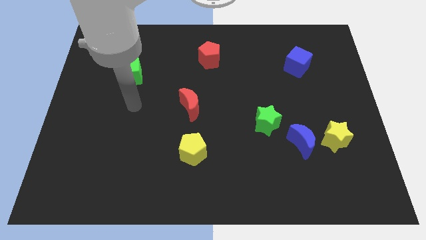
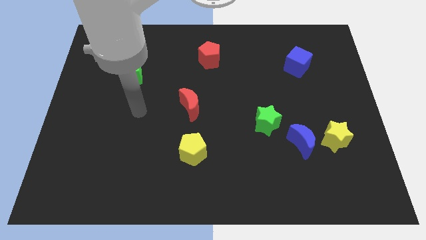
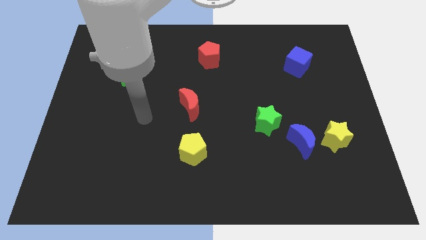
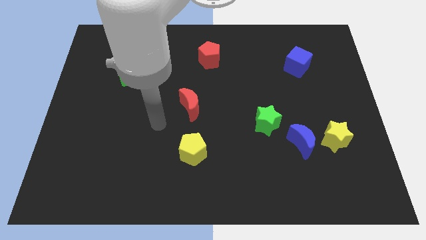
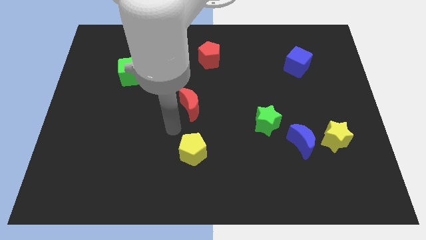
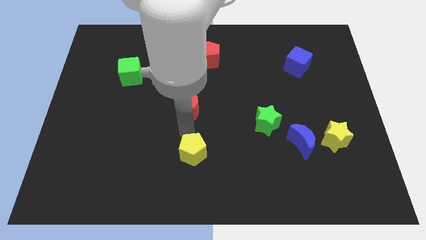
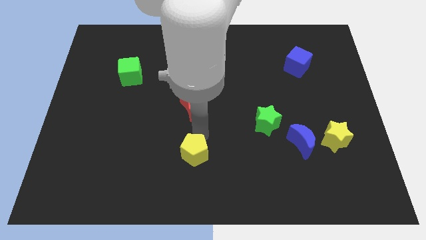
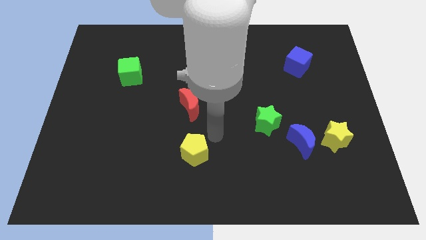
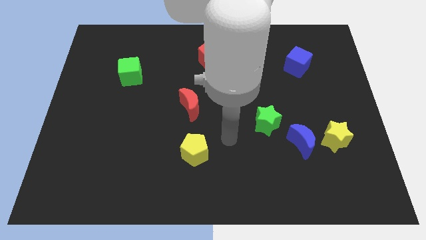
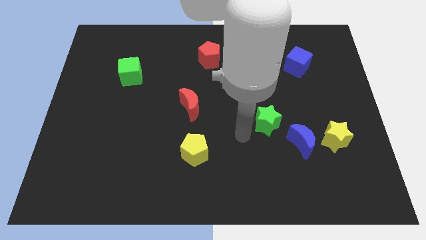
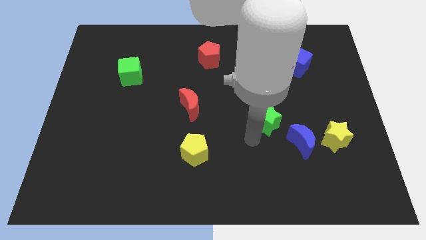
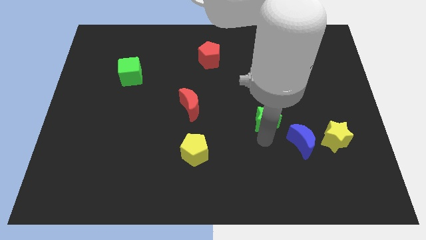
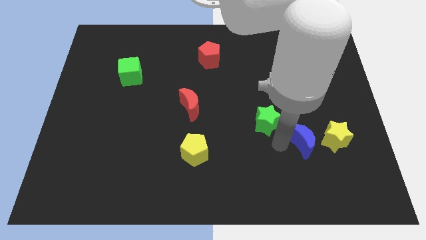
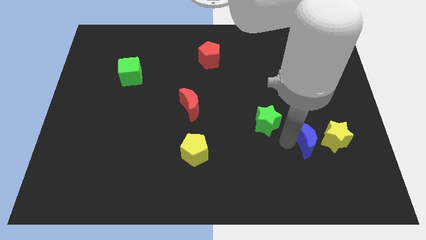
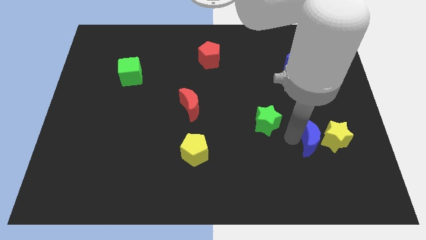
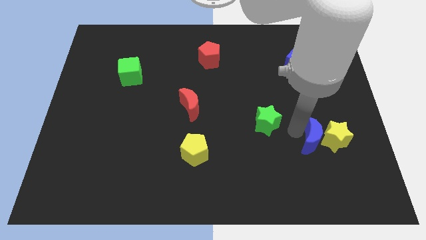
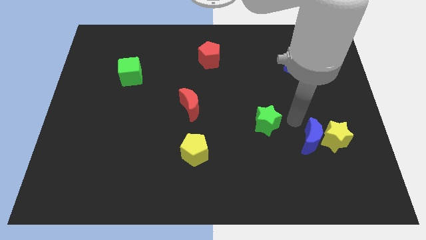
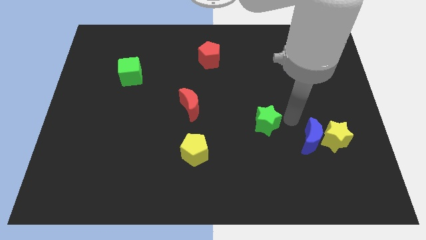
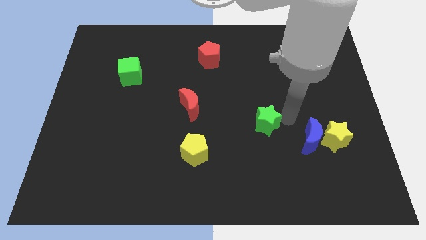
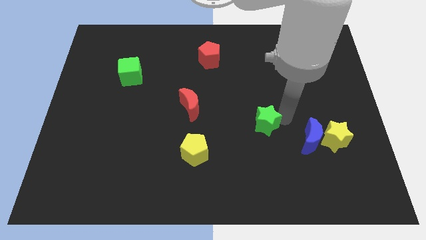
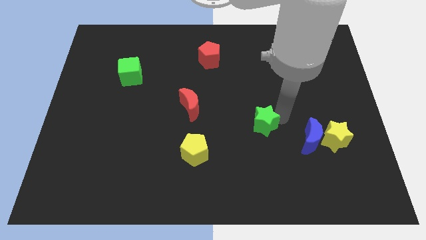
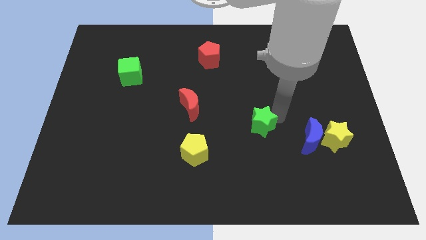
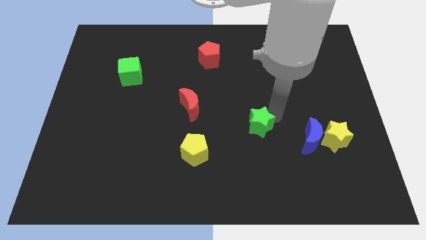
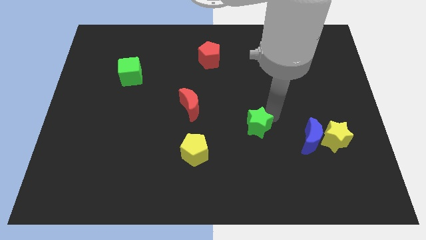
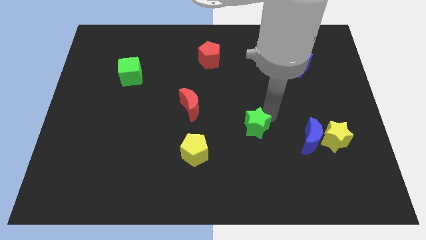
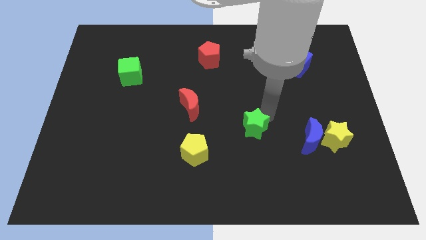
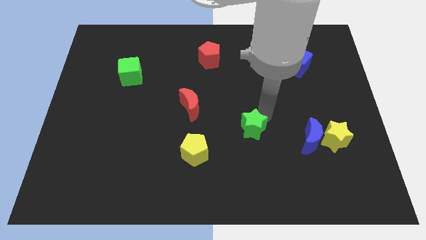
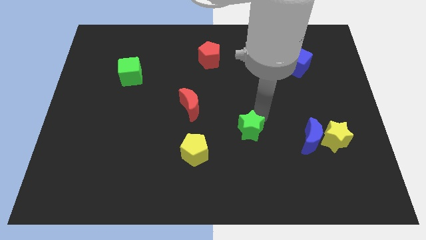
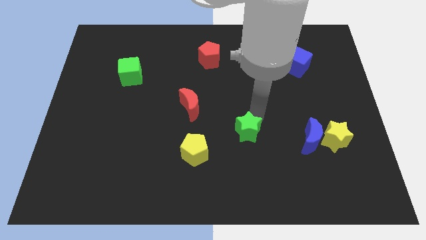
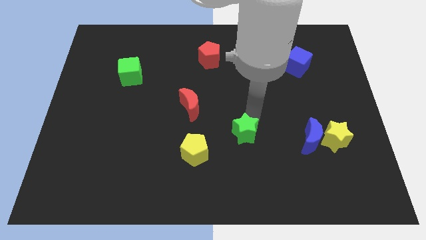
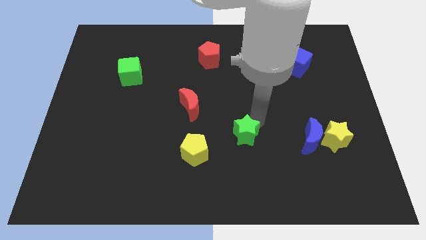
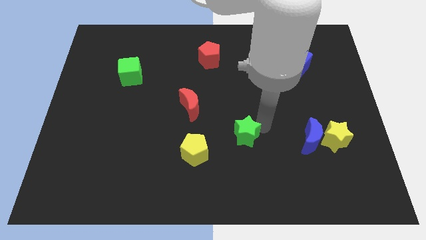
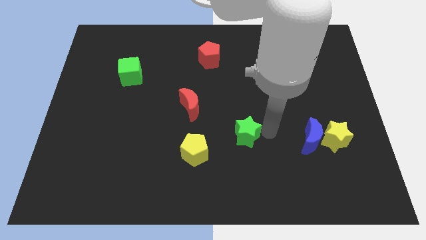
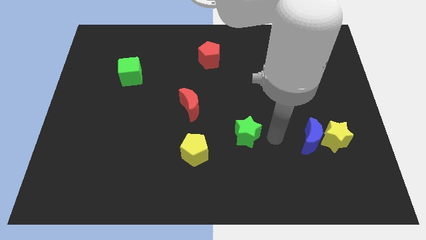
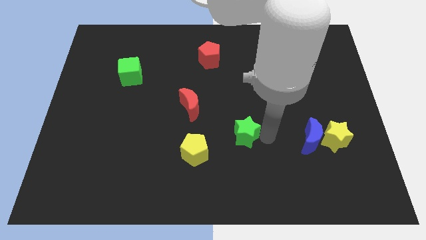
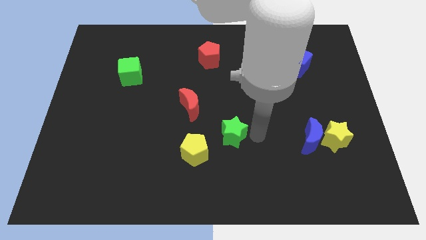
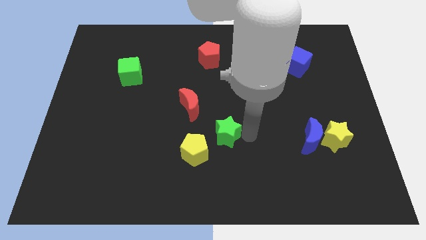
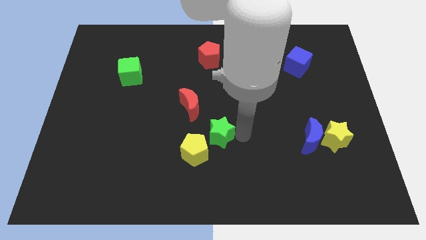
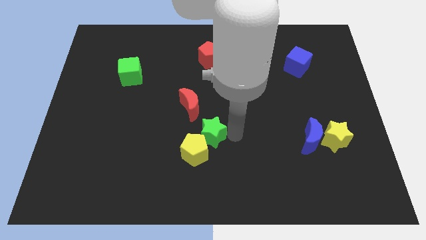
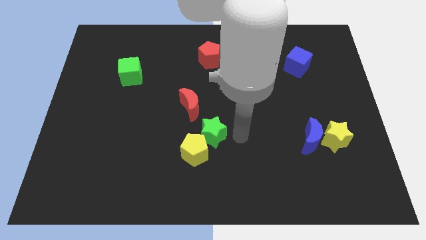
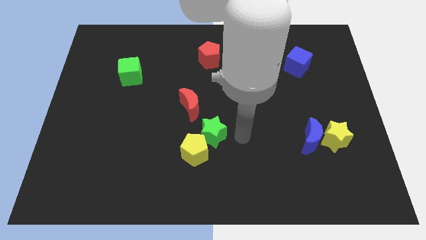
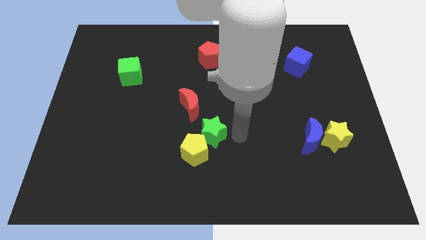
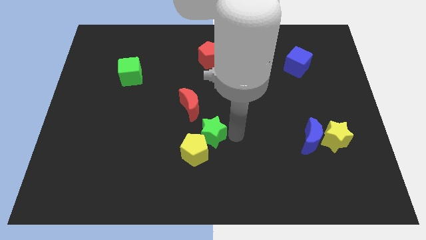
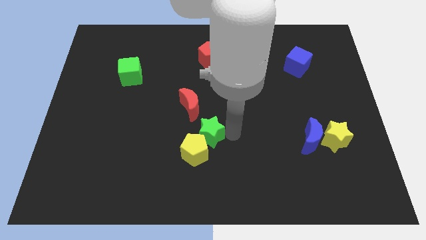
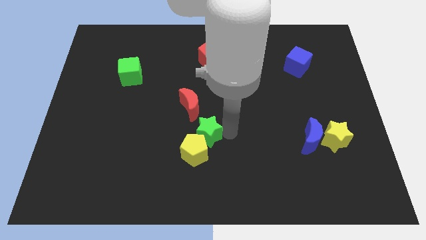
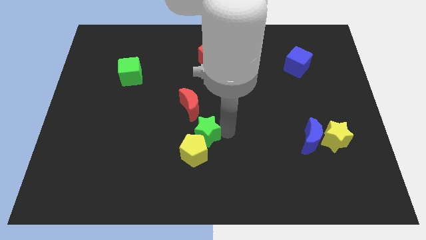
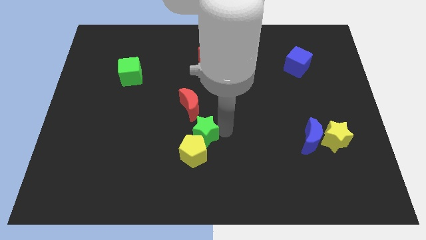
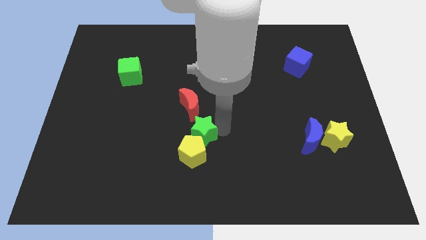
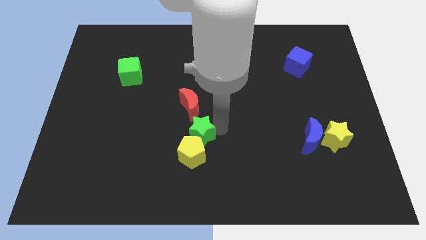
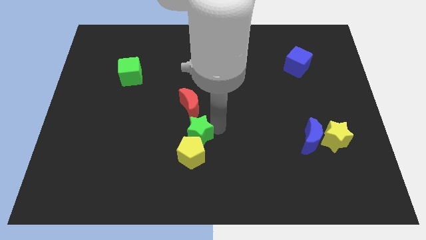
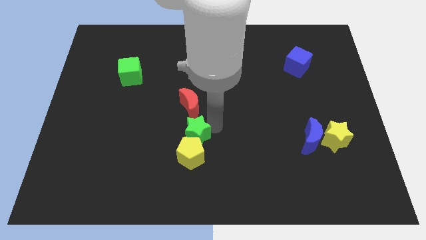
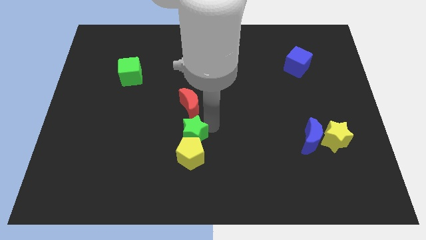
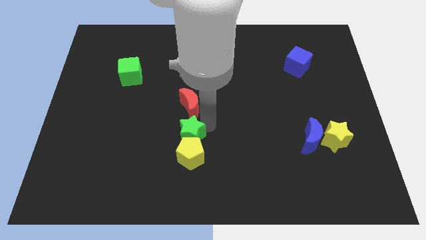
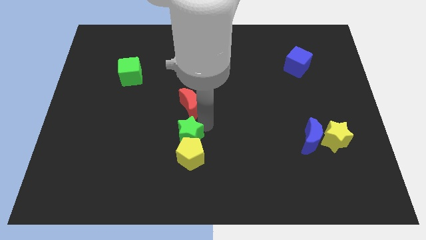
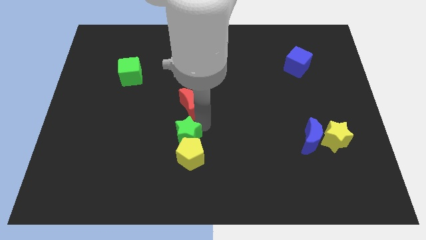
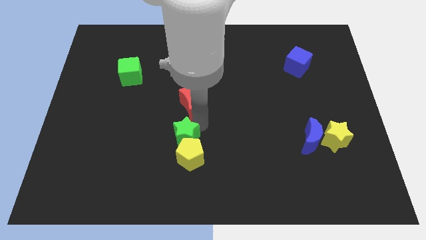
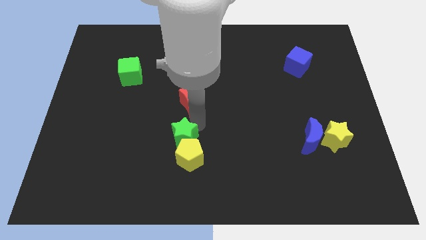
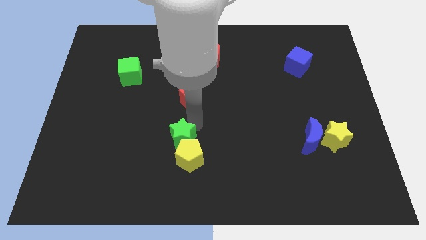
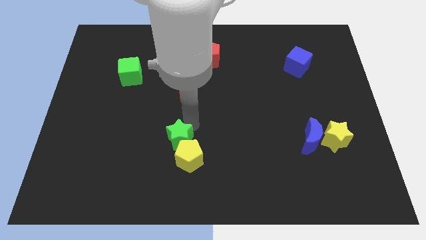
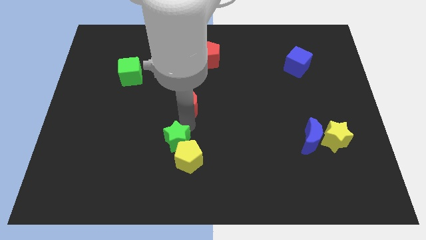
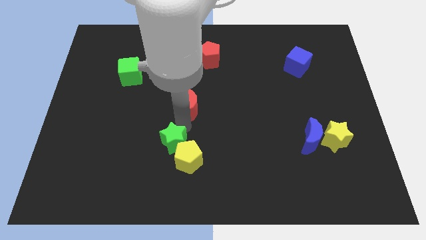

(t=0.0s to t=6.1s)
push the green star just left of the yellow pentagon

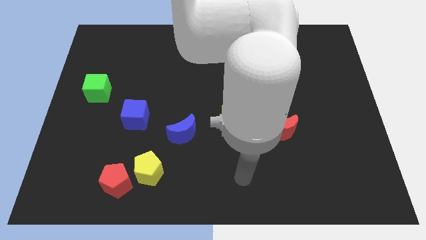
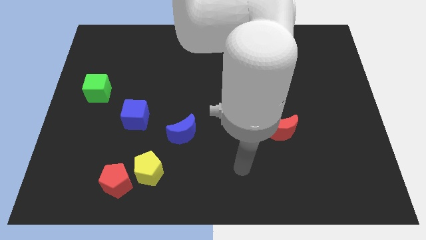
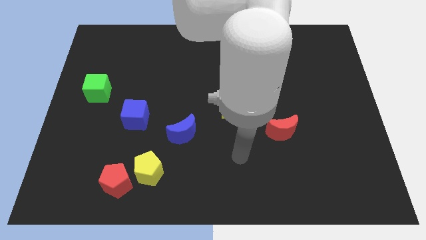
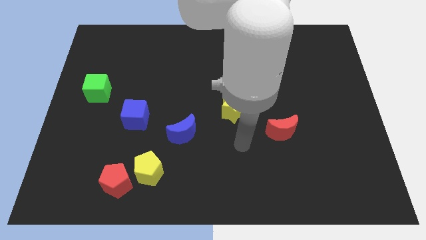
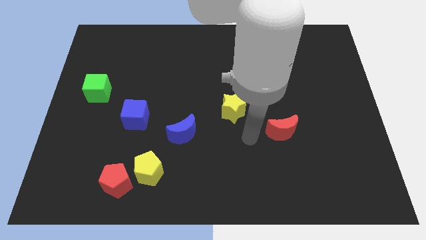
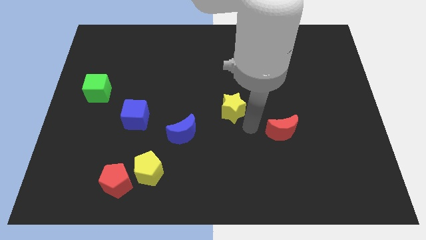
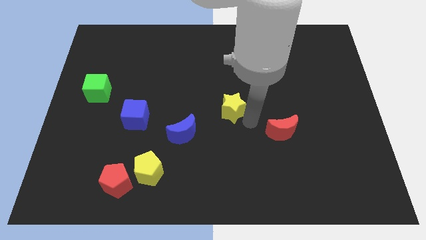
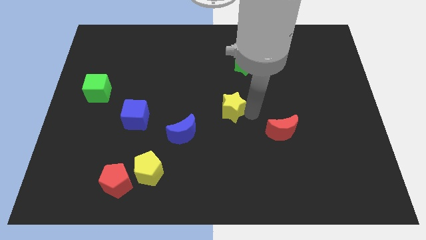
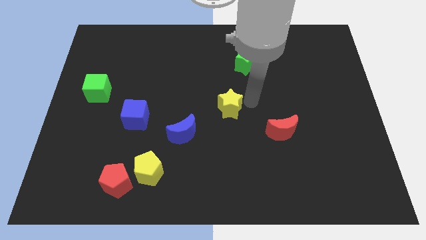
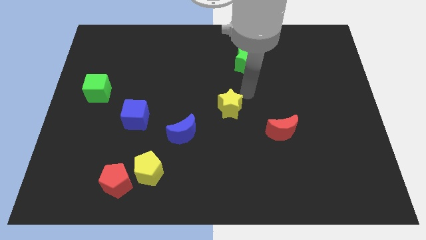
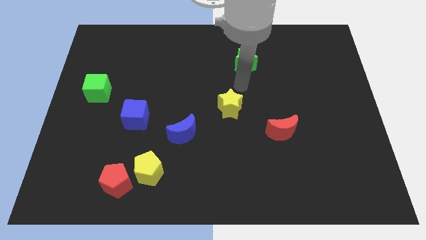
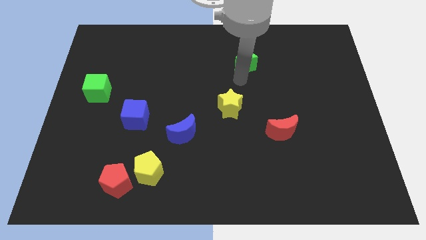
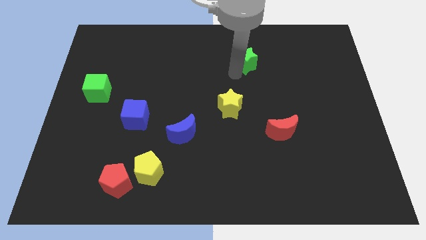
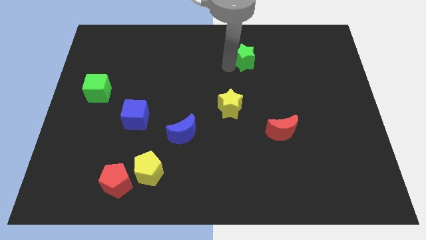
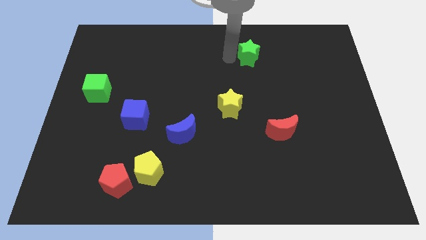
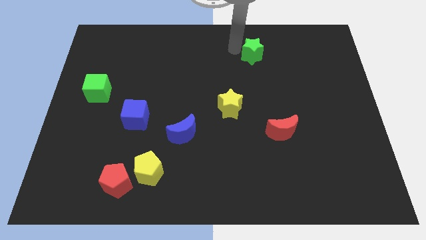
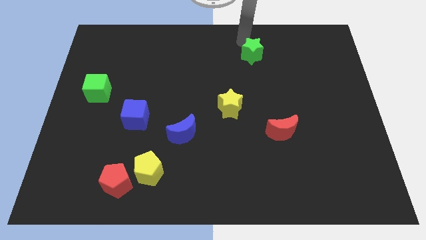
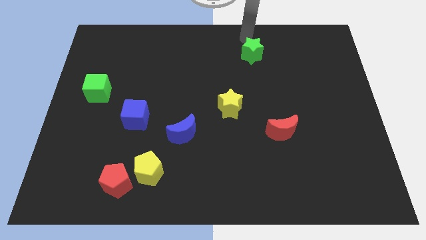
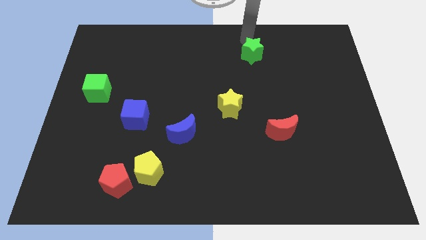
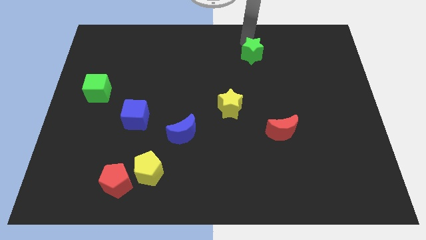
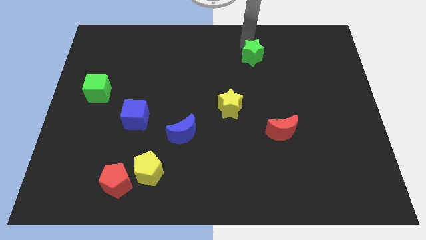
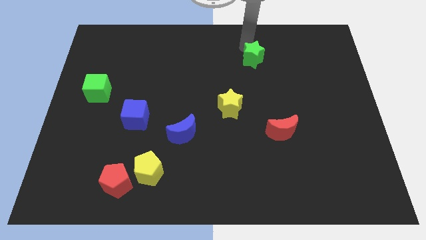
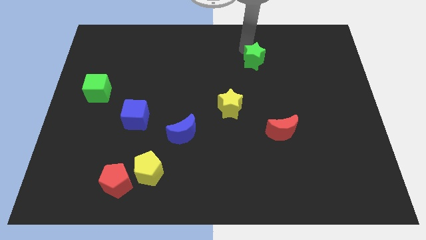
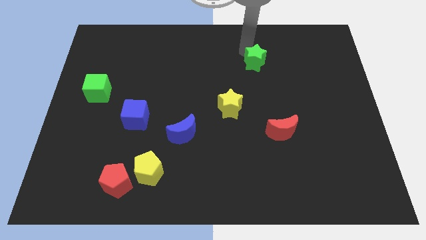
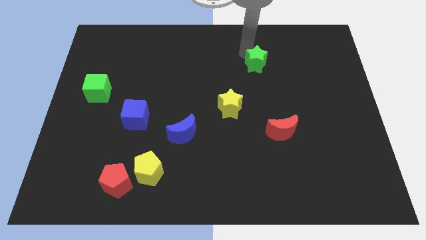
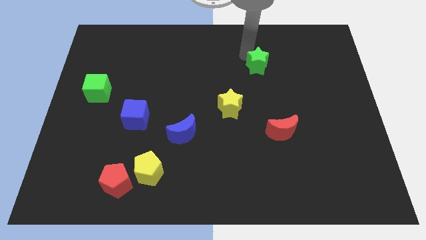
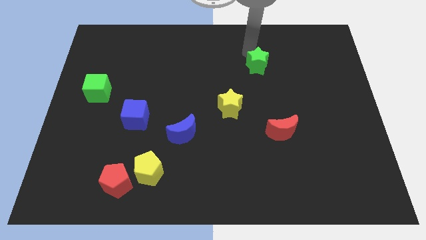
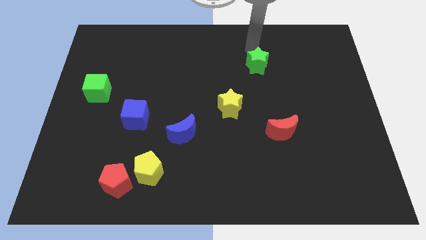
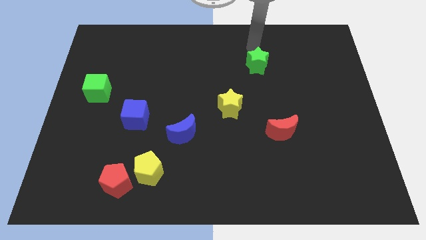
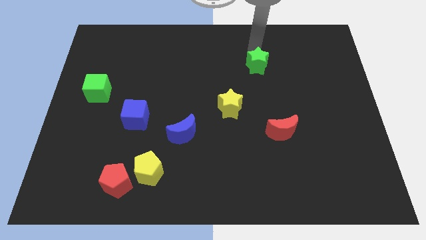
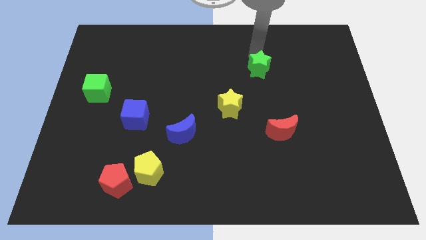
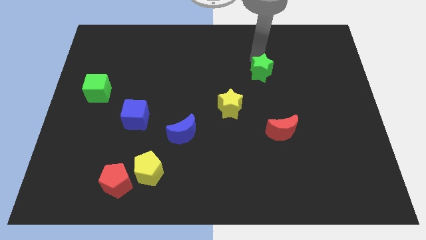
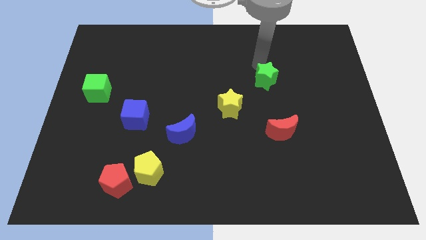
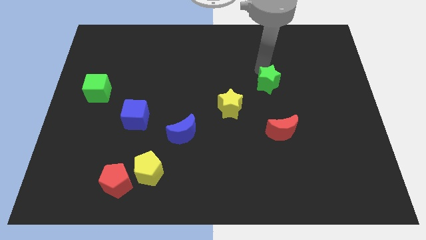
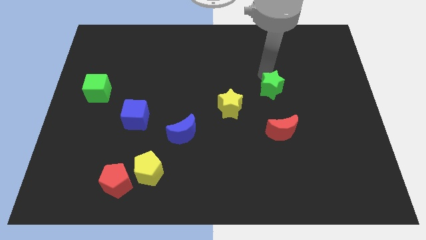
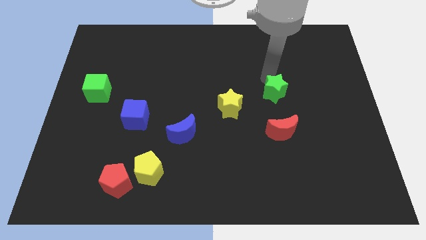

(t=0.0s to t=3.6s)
slide the green star just right of the yellow star
